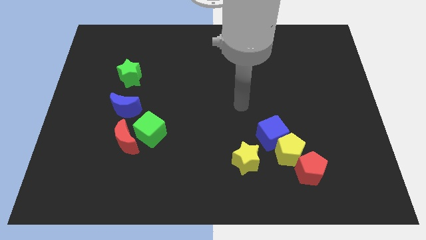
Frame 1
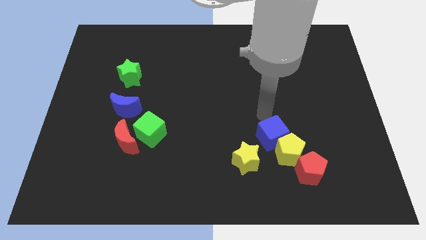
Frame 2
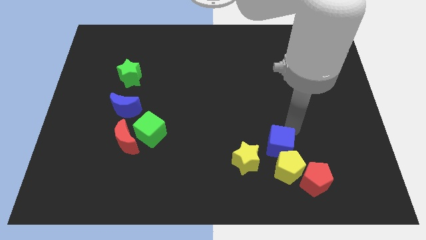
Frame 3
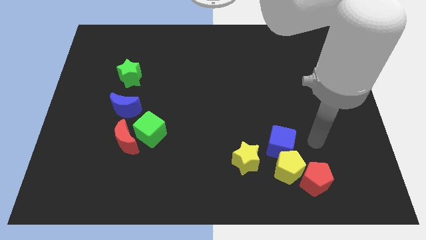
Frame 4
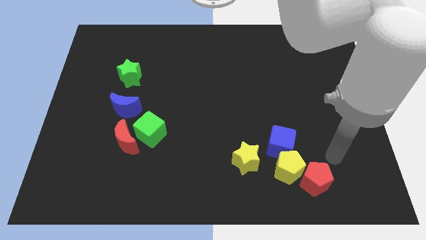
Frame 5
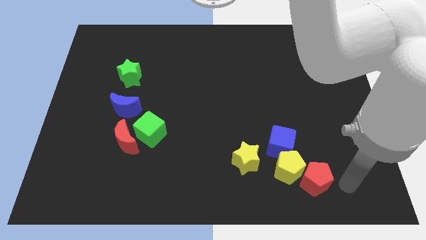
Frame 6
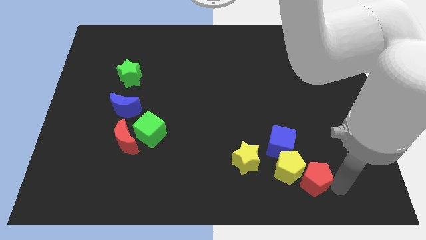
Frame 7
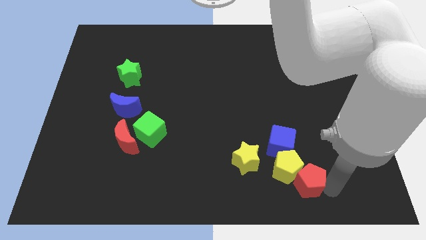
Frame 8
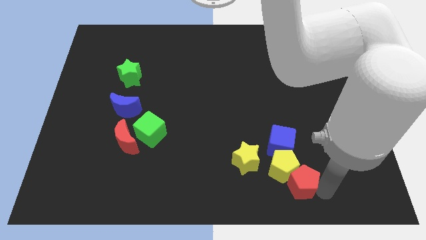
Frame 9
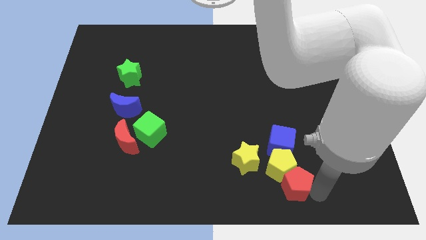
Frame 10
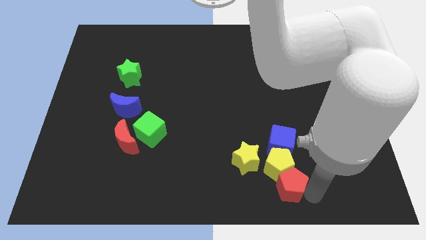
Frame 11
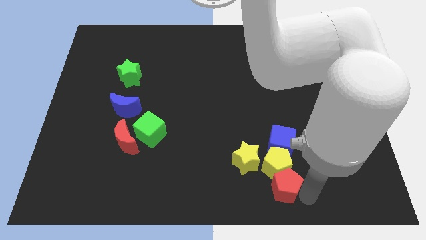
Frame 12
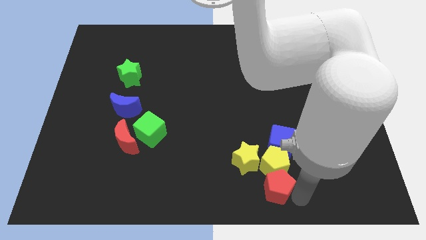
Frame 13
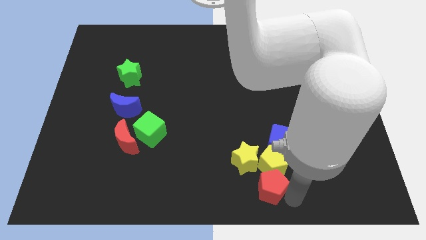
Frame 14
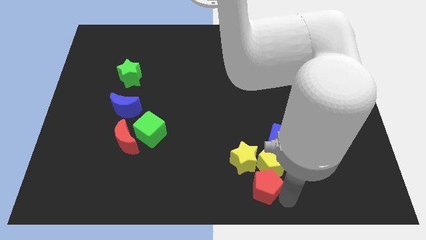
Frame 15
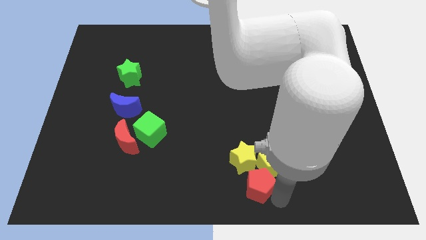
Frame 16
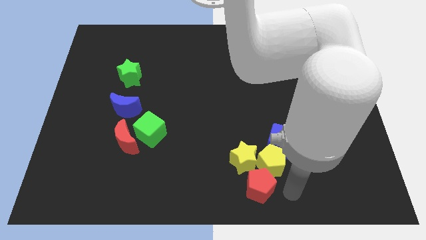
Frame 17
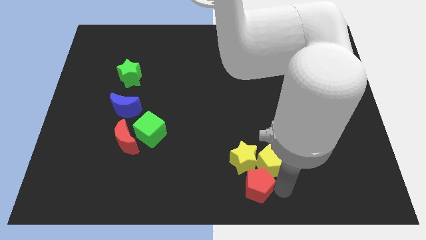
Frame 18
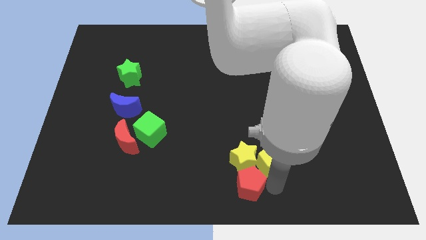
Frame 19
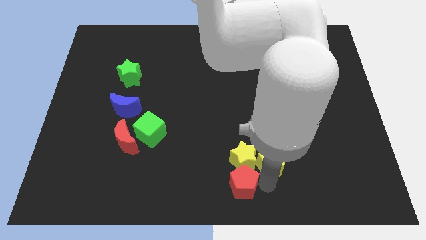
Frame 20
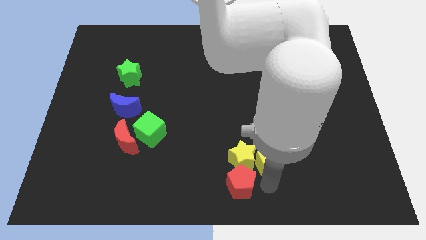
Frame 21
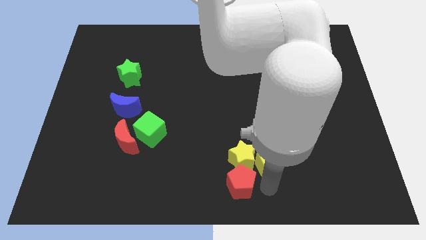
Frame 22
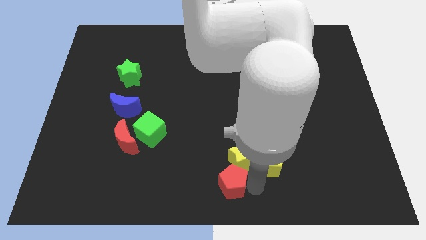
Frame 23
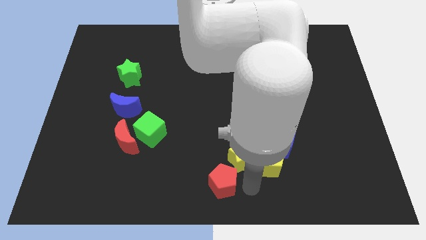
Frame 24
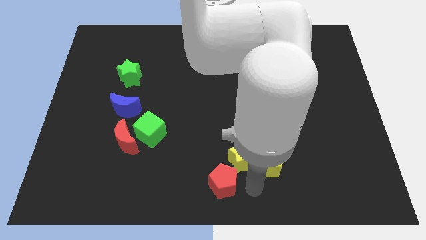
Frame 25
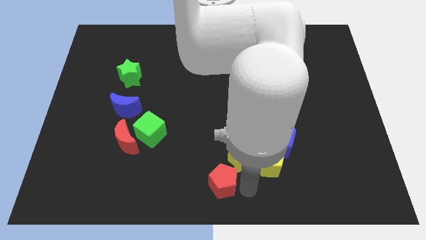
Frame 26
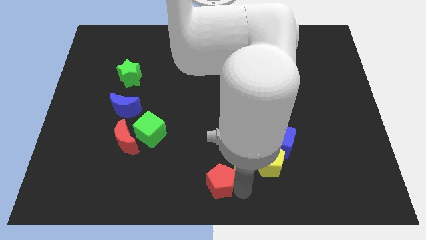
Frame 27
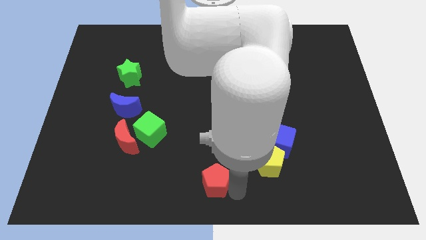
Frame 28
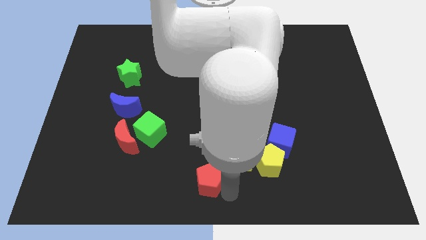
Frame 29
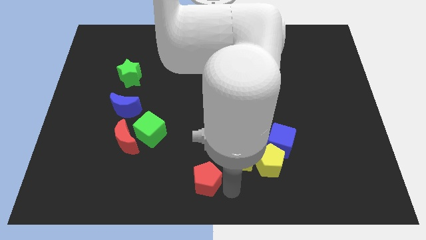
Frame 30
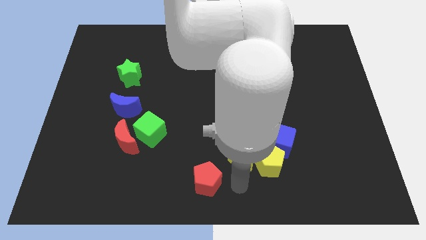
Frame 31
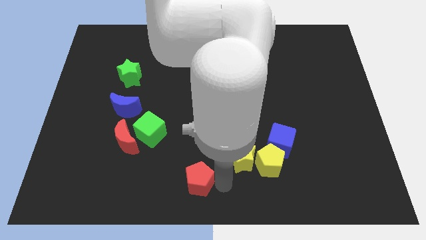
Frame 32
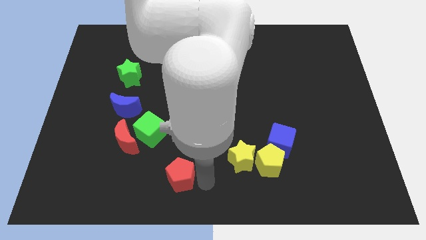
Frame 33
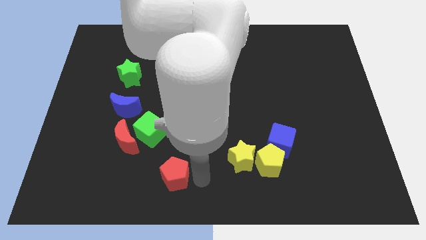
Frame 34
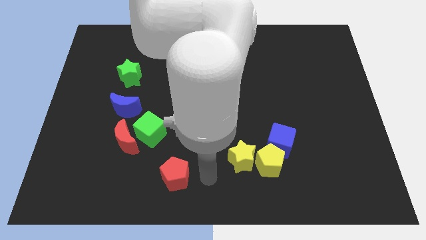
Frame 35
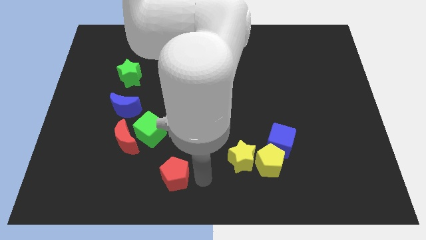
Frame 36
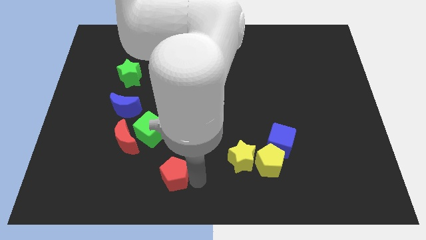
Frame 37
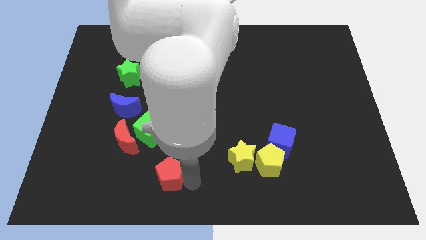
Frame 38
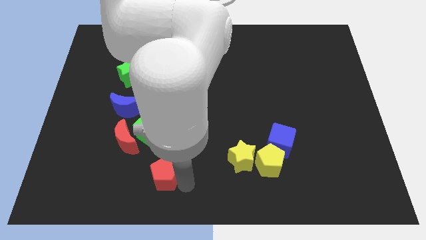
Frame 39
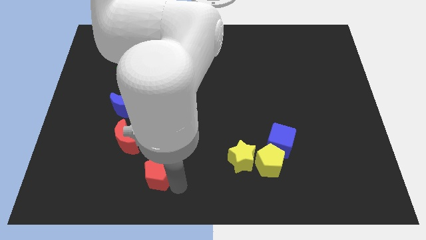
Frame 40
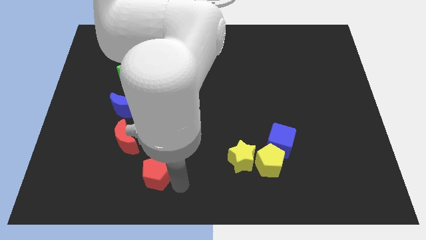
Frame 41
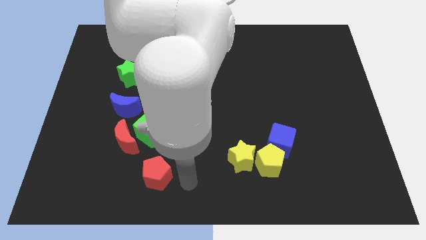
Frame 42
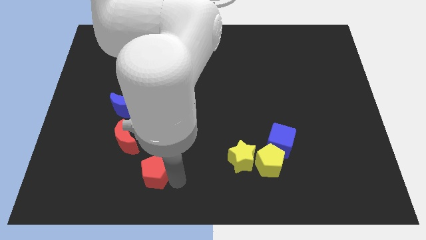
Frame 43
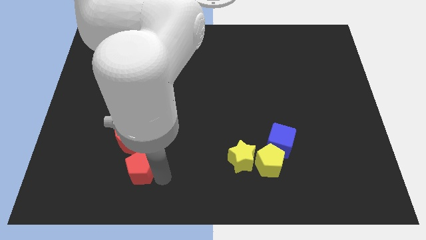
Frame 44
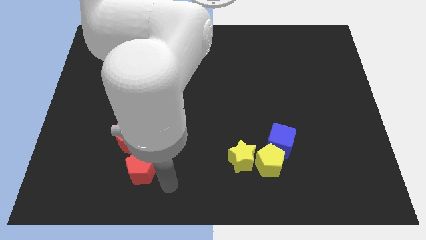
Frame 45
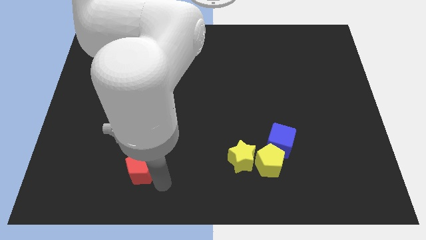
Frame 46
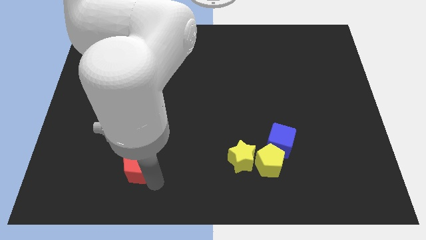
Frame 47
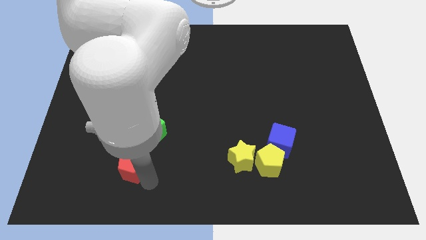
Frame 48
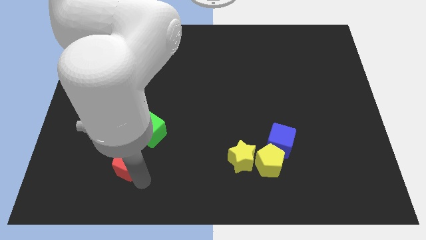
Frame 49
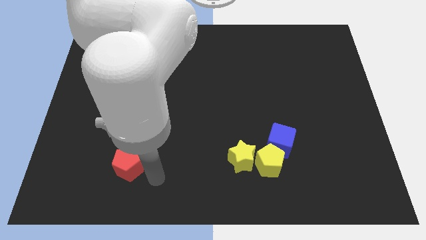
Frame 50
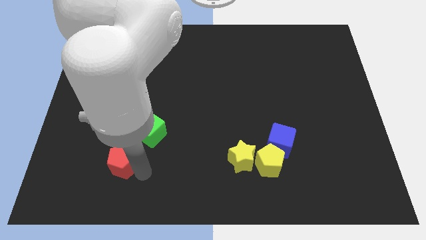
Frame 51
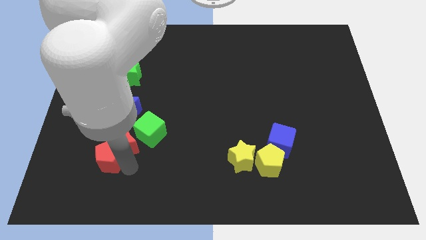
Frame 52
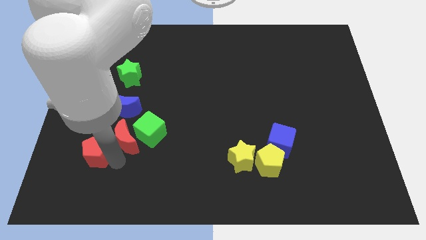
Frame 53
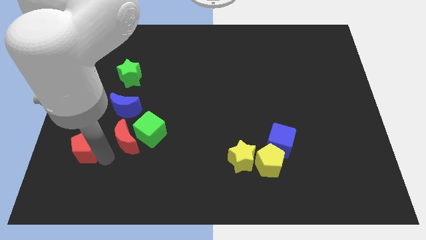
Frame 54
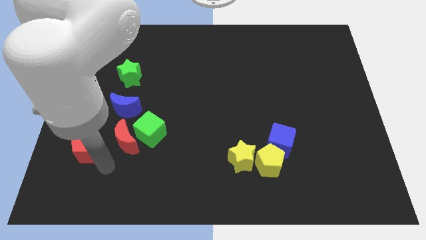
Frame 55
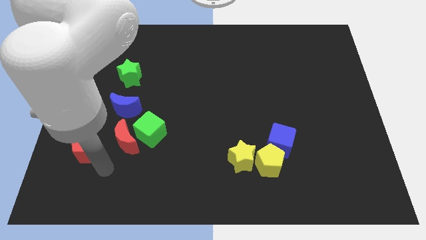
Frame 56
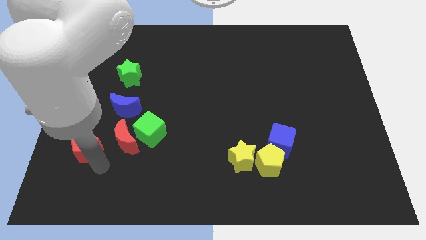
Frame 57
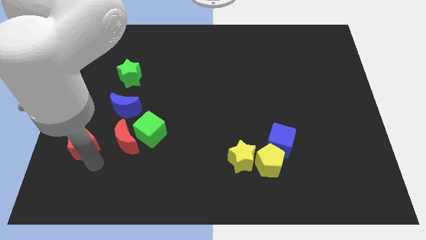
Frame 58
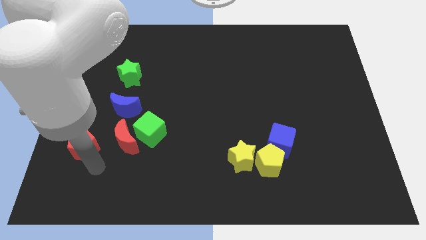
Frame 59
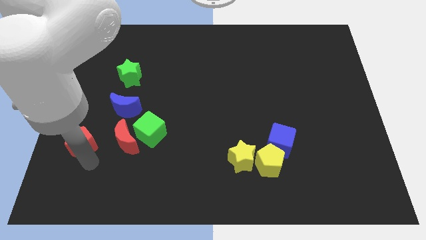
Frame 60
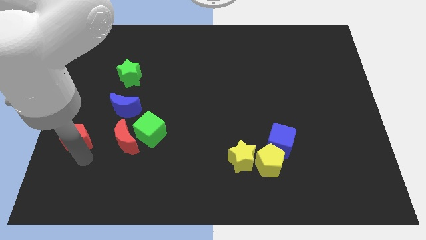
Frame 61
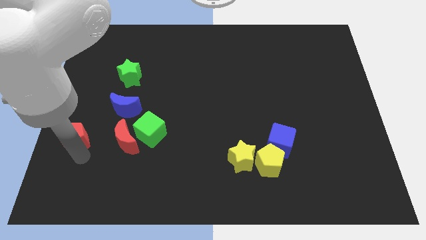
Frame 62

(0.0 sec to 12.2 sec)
put the red pentagon to the left side of the board

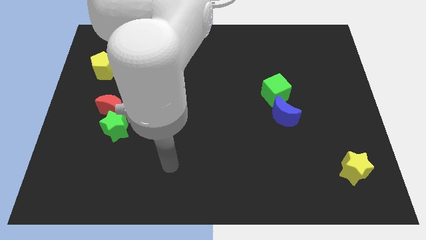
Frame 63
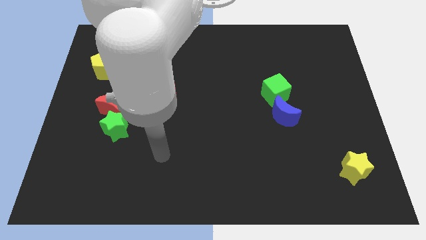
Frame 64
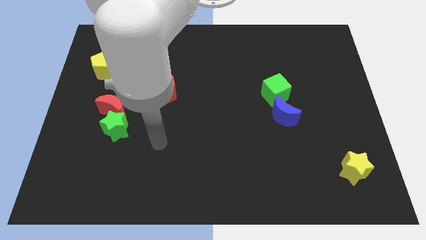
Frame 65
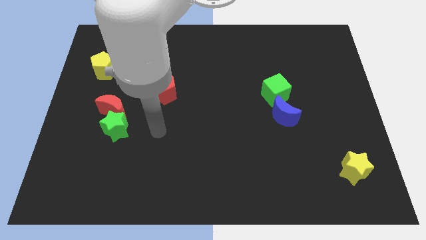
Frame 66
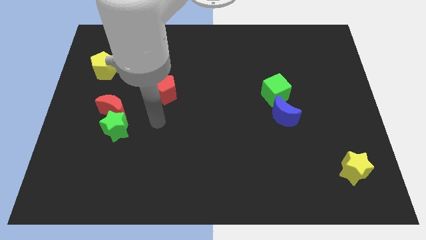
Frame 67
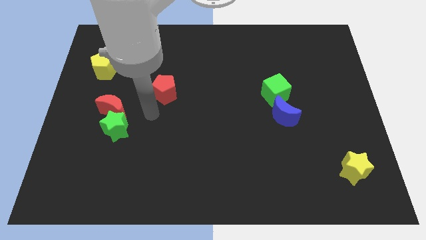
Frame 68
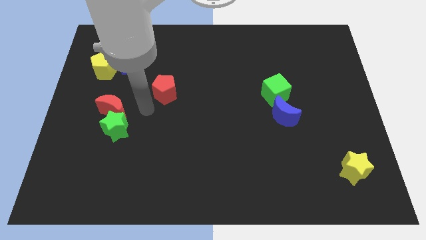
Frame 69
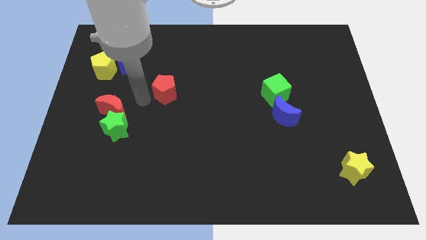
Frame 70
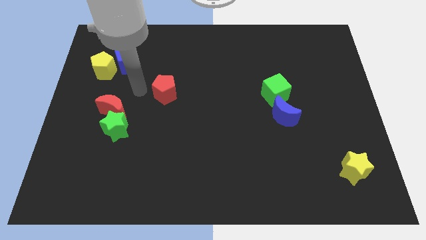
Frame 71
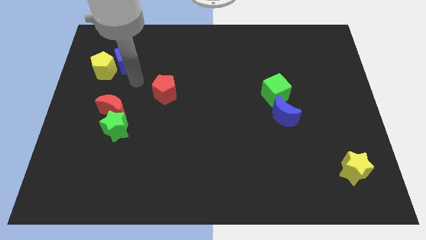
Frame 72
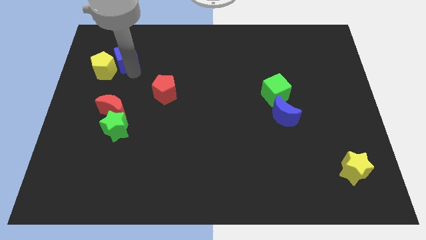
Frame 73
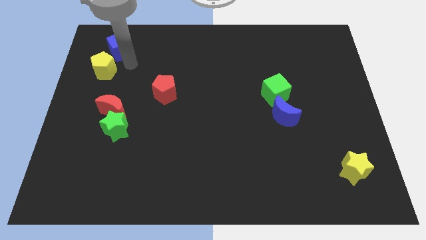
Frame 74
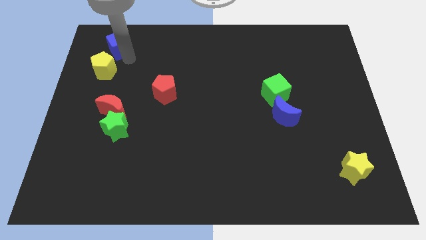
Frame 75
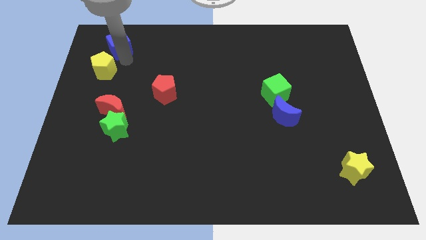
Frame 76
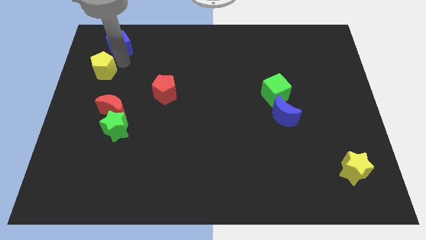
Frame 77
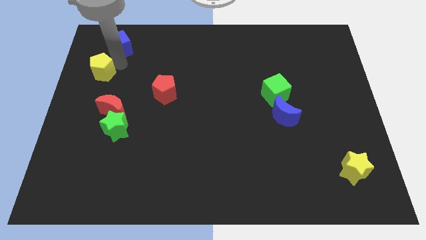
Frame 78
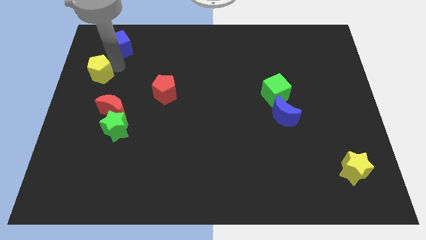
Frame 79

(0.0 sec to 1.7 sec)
put the yellow pentagon to the left side
